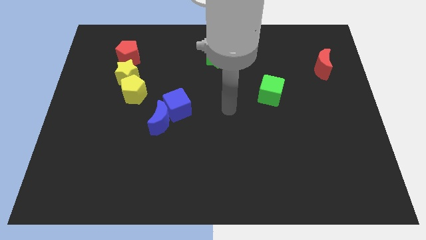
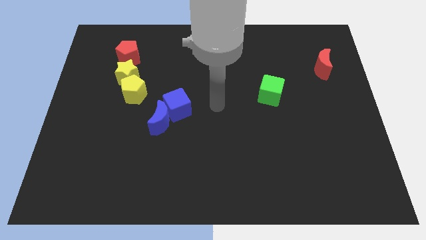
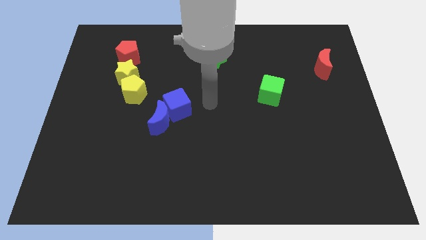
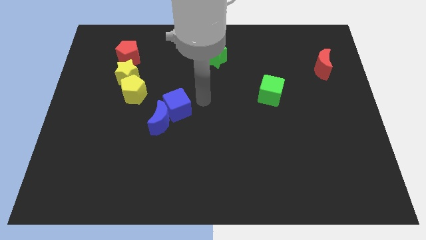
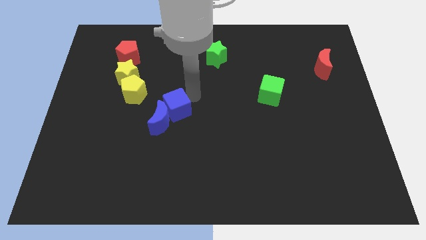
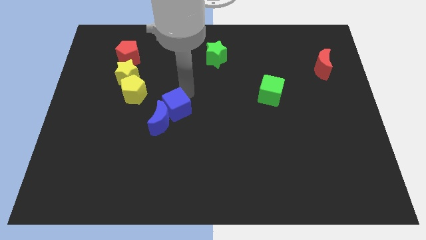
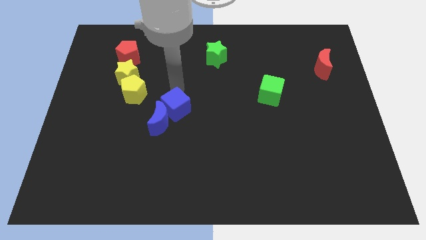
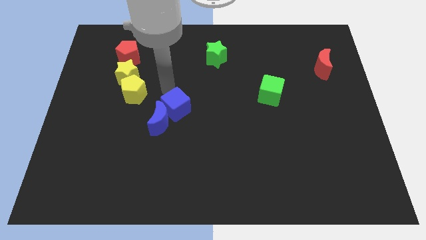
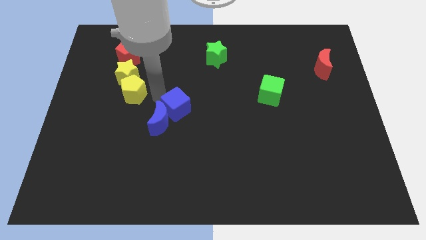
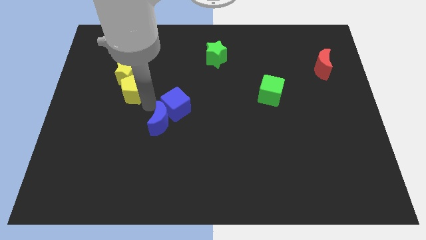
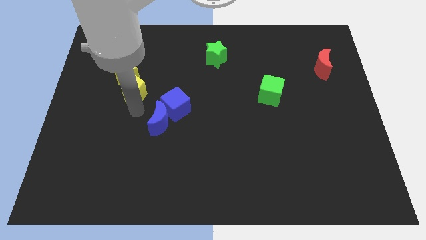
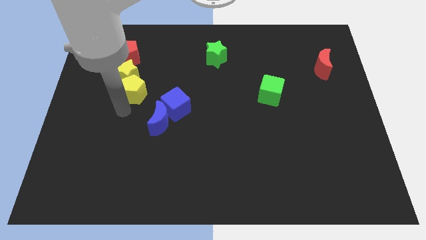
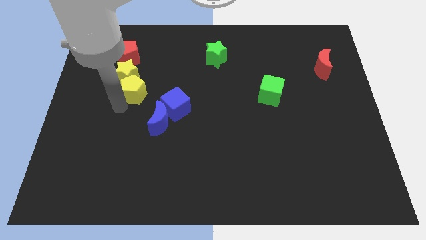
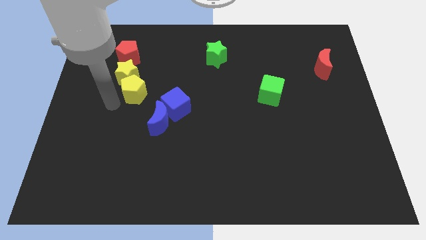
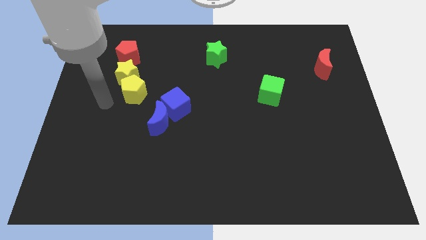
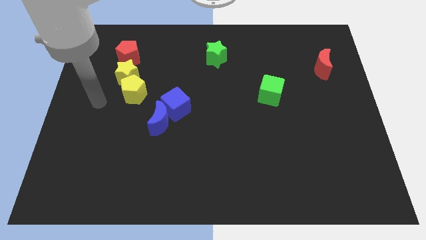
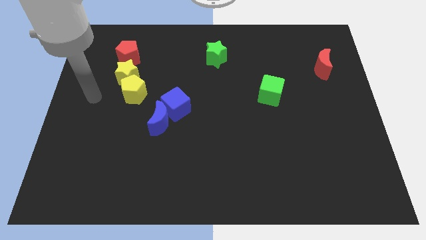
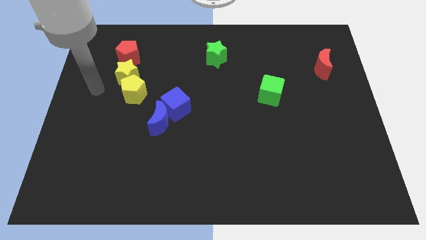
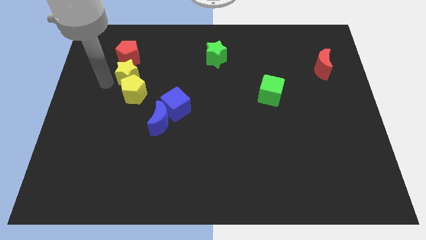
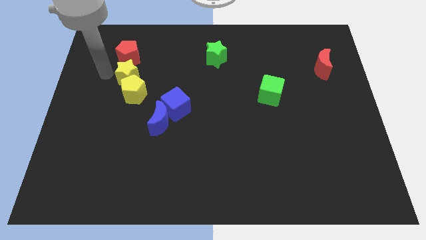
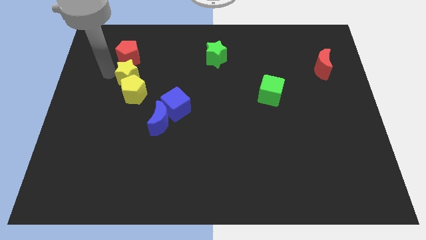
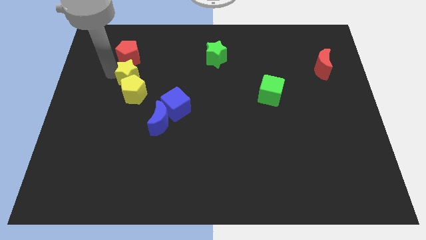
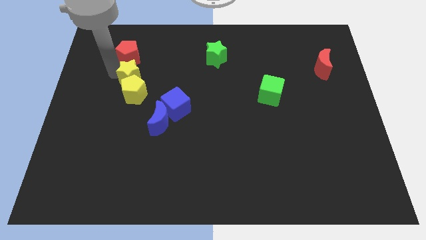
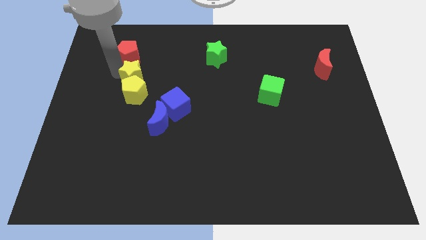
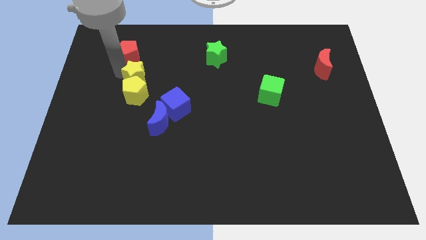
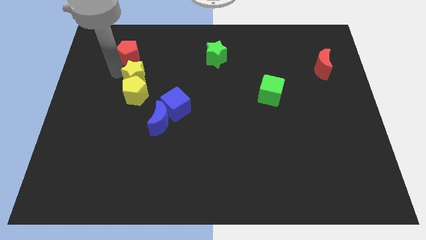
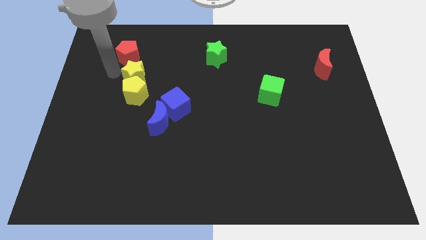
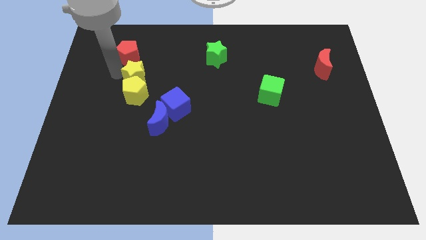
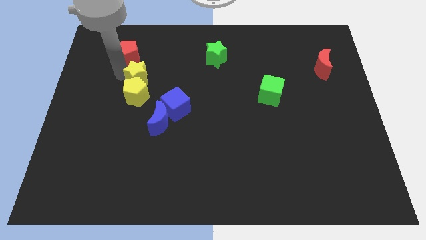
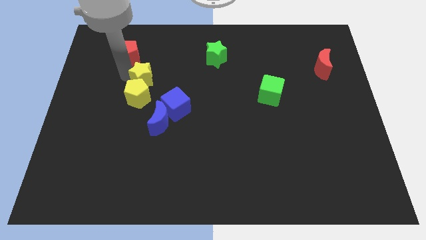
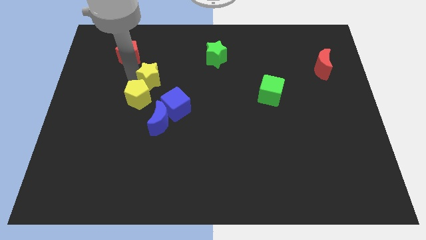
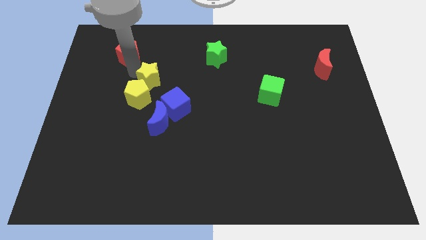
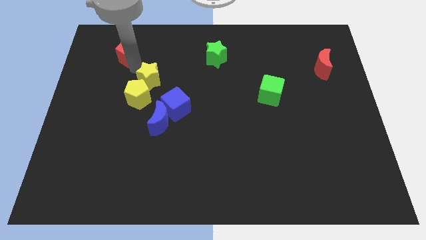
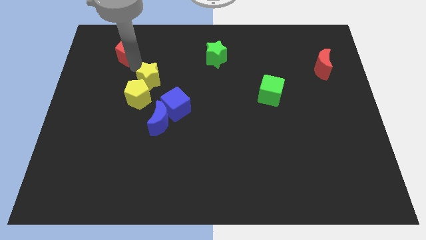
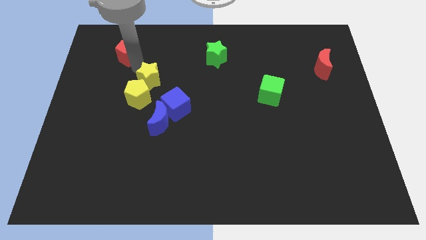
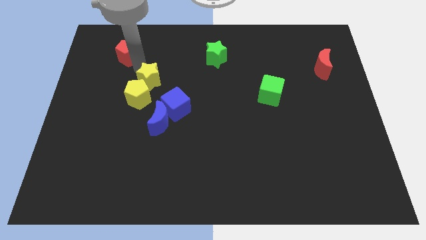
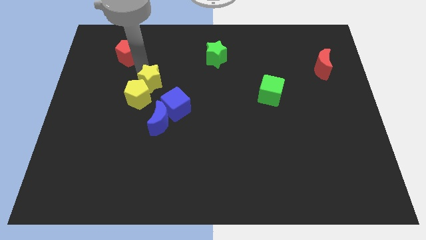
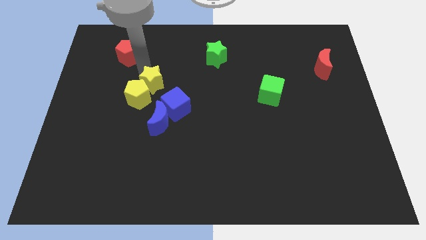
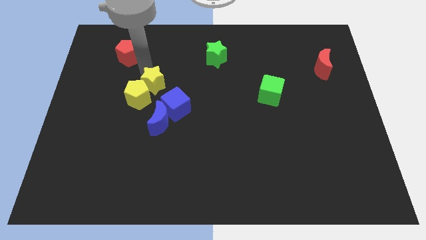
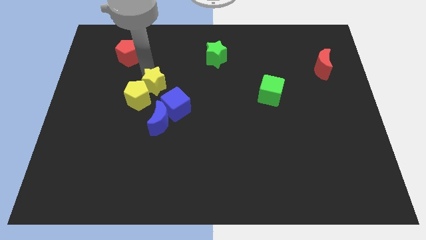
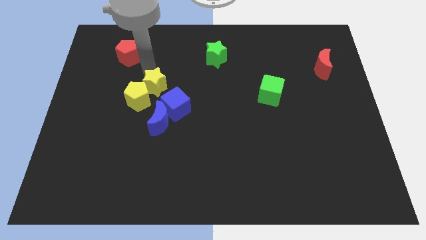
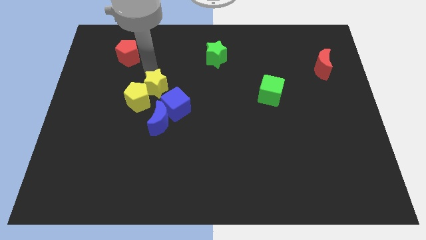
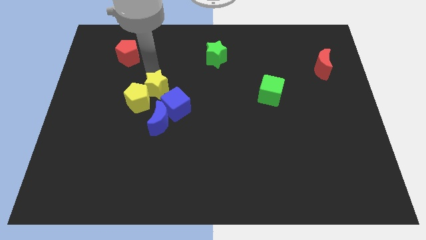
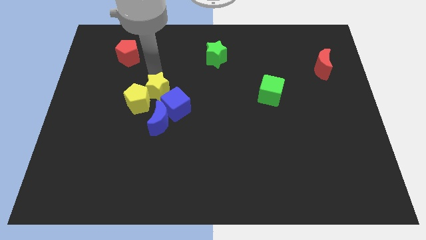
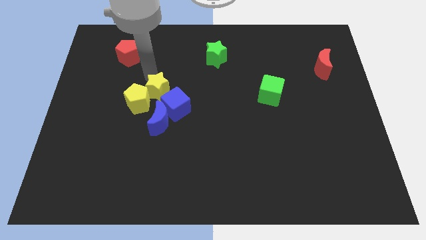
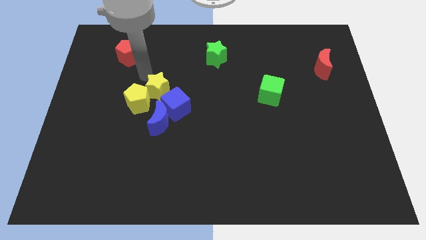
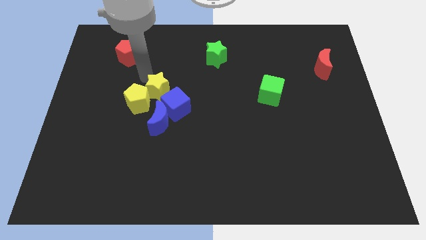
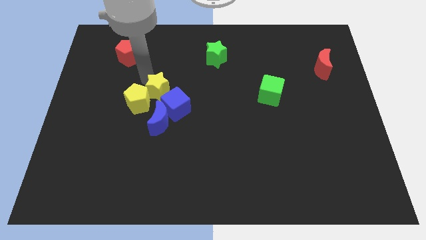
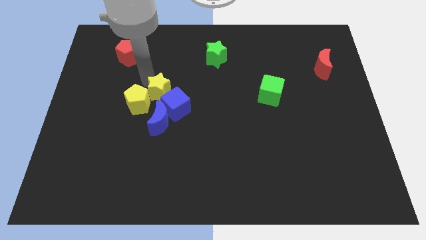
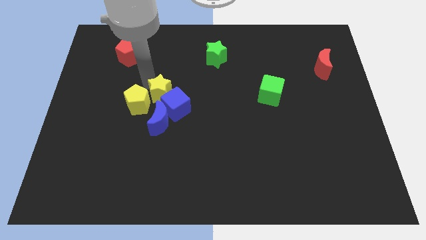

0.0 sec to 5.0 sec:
push the yellow star close to the blue cube

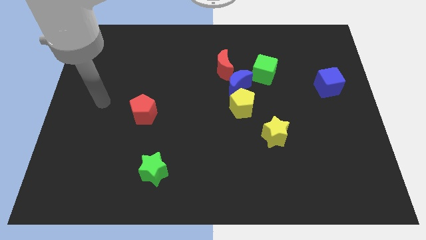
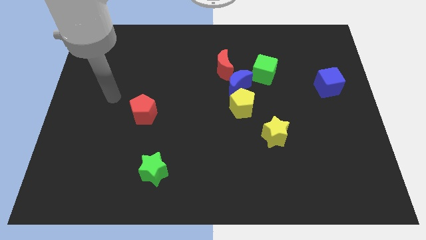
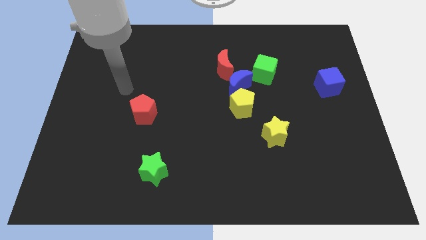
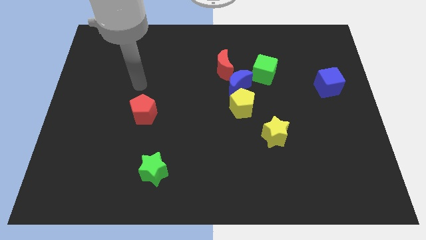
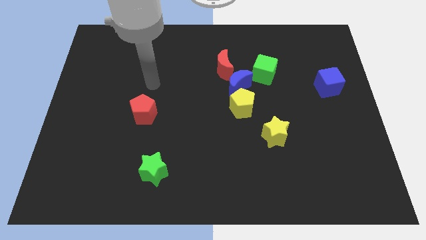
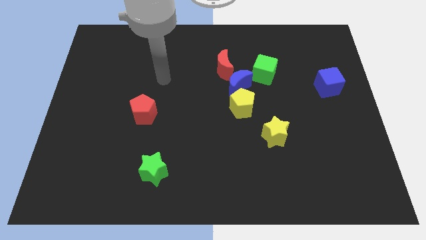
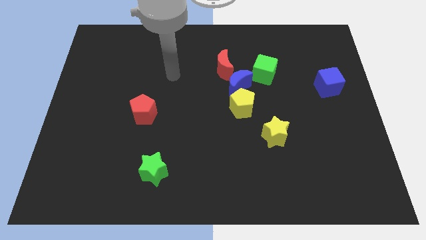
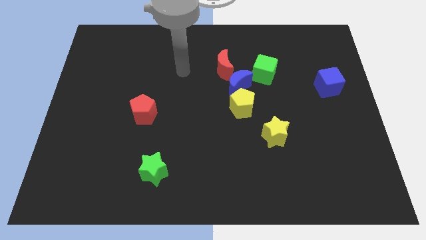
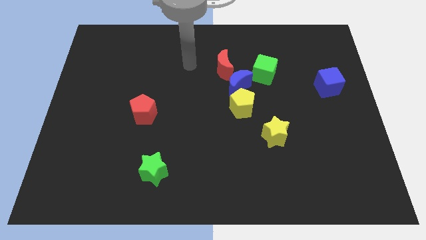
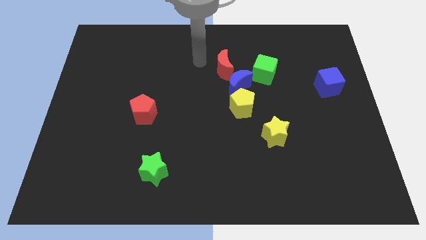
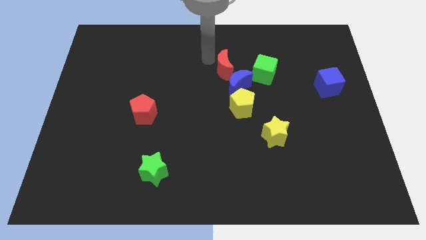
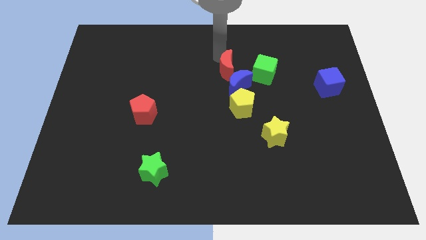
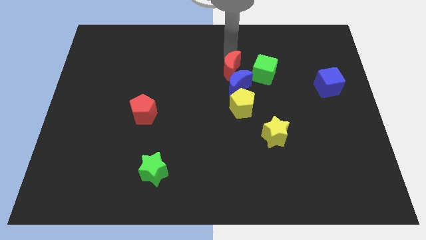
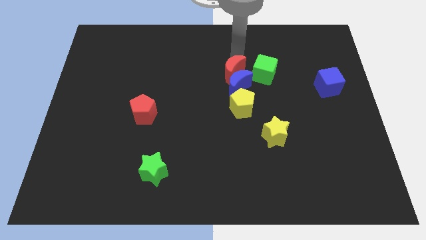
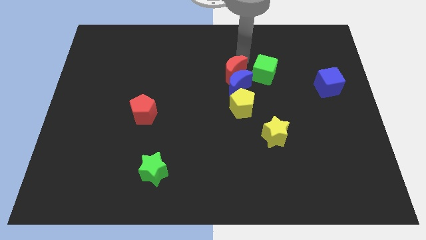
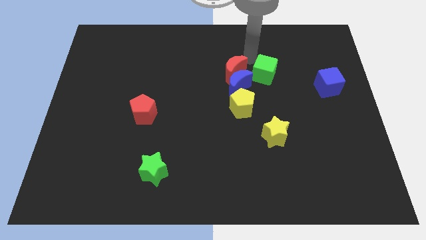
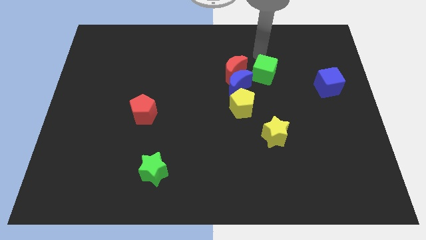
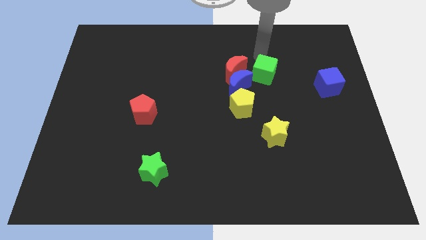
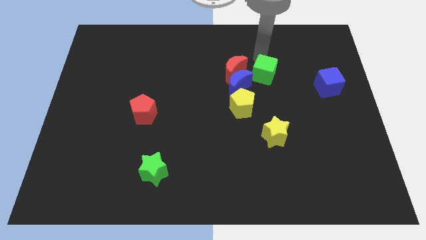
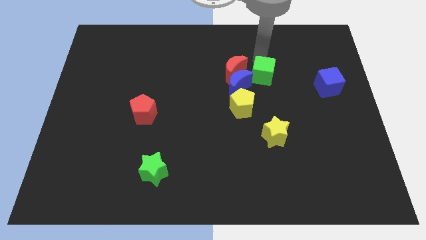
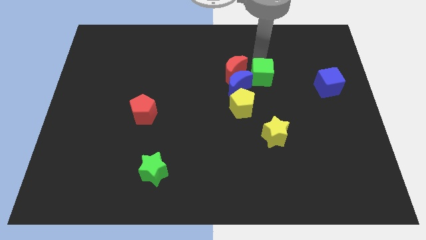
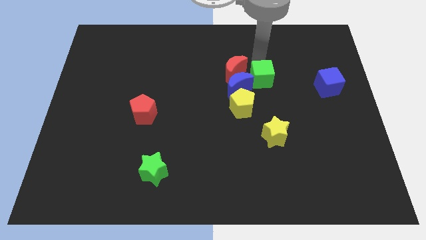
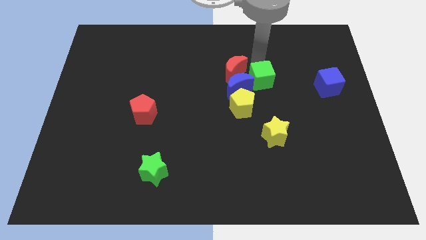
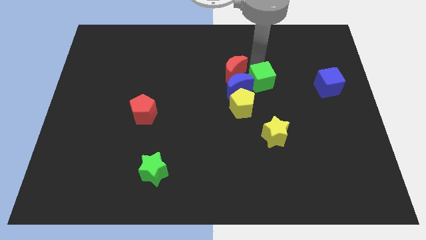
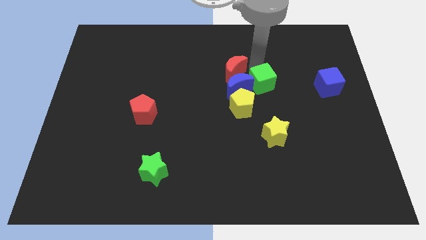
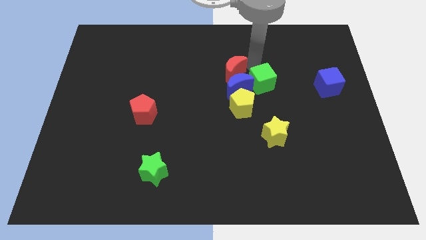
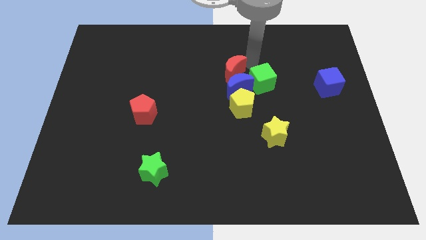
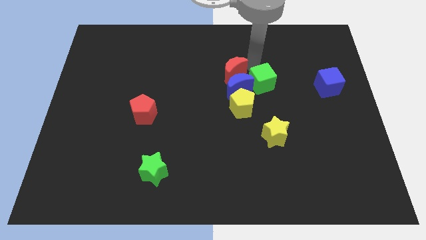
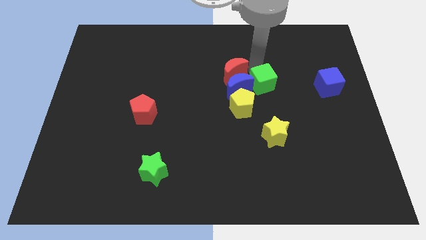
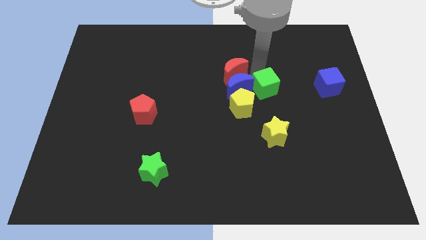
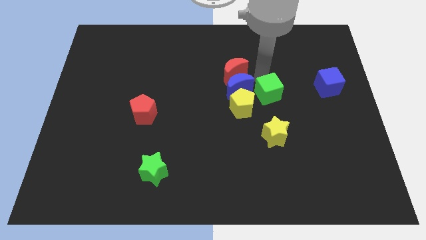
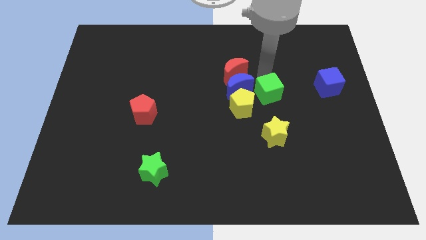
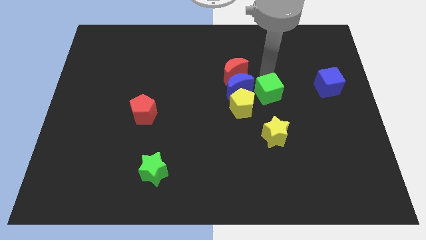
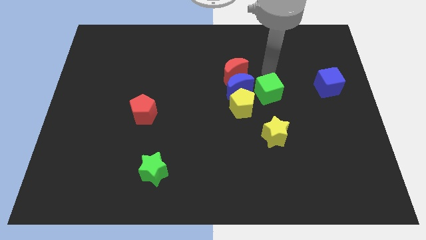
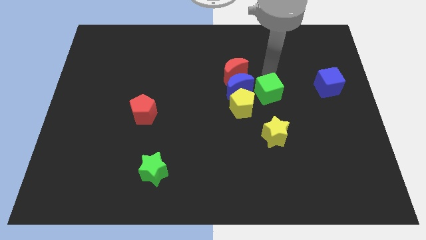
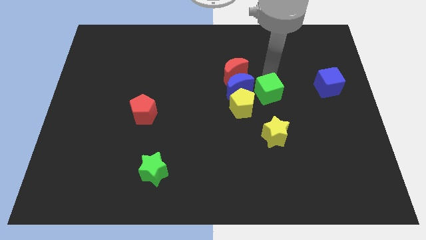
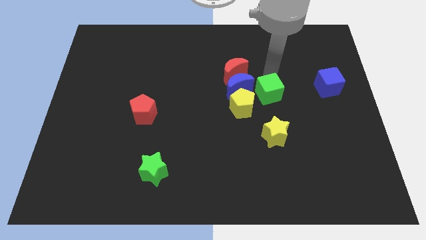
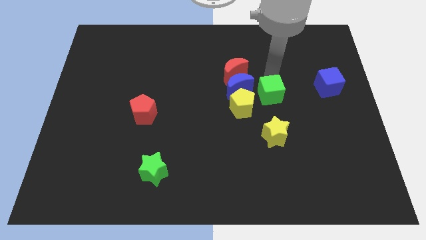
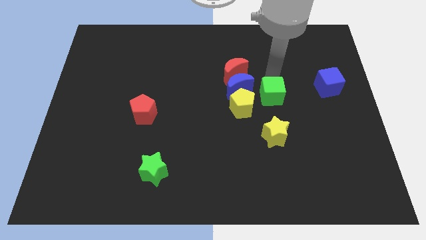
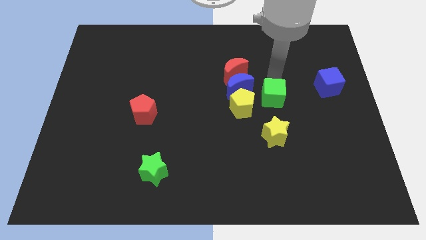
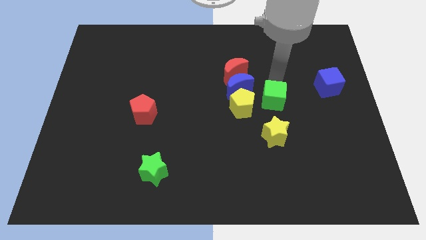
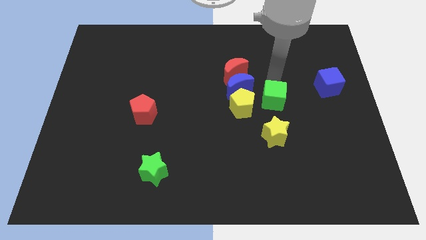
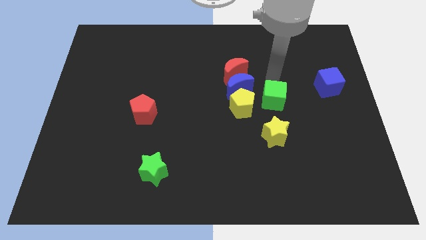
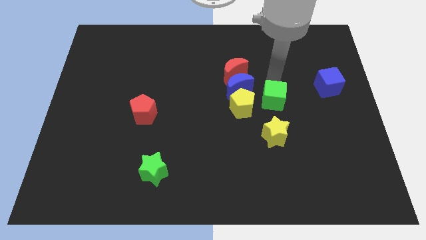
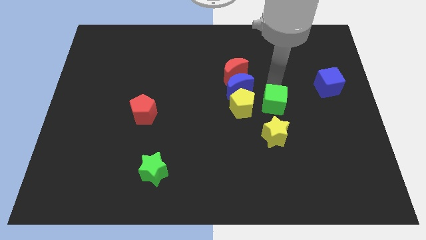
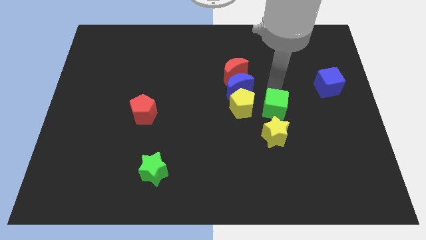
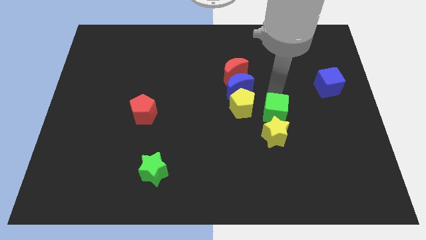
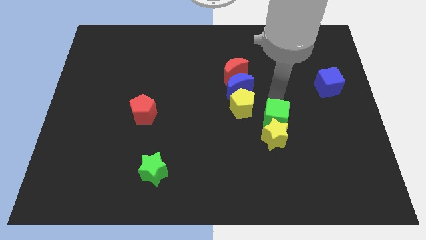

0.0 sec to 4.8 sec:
push the green cube to the yellow star
